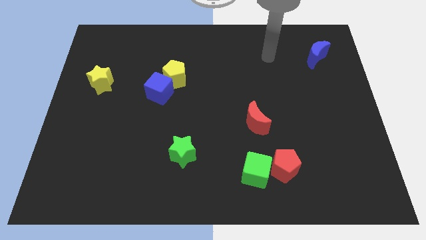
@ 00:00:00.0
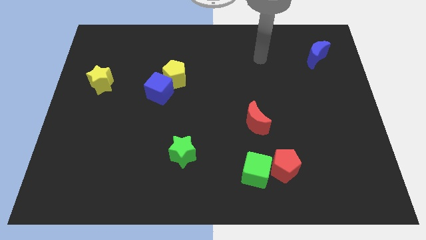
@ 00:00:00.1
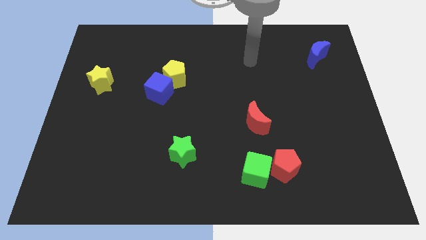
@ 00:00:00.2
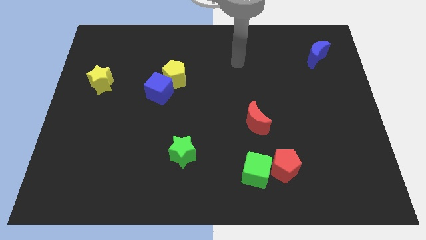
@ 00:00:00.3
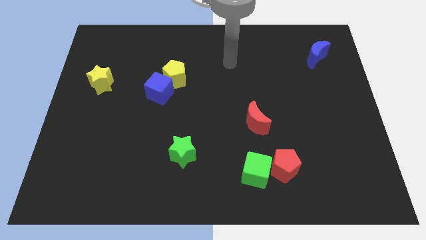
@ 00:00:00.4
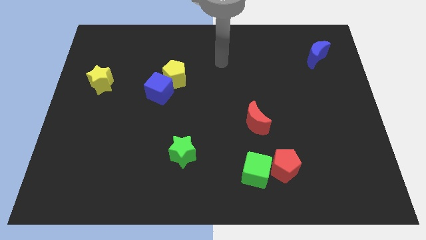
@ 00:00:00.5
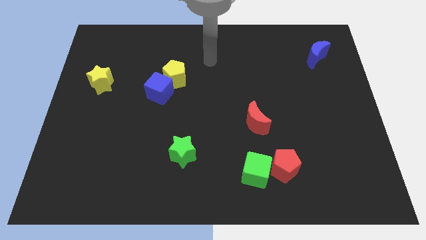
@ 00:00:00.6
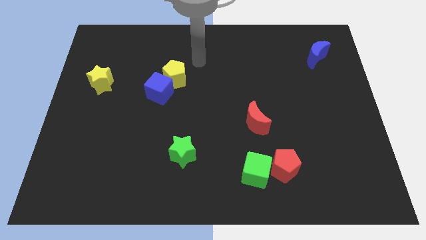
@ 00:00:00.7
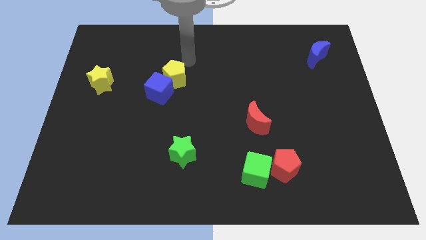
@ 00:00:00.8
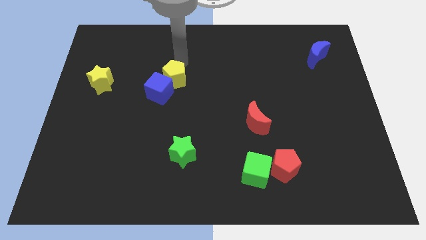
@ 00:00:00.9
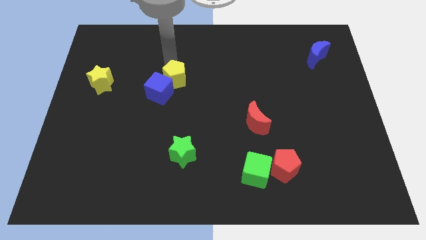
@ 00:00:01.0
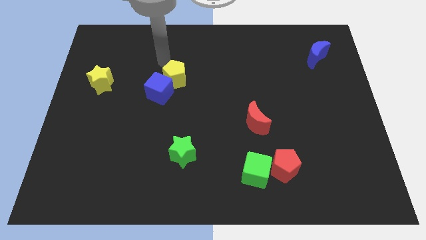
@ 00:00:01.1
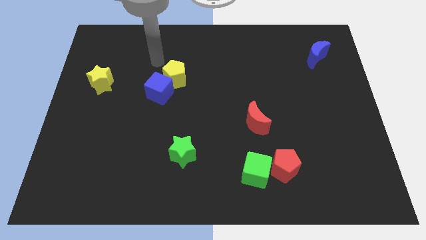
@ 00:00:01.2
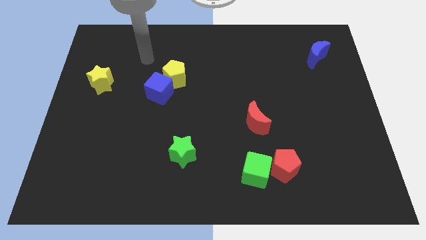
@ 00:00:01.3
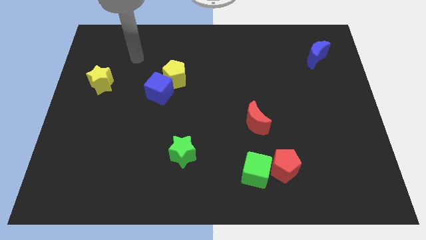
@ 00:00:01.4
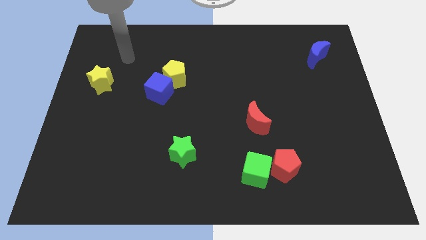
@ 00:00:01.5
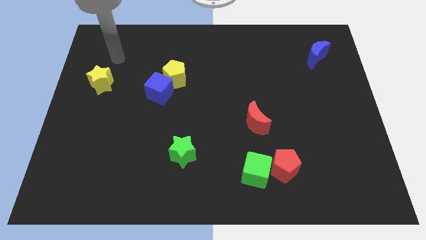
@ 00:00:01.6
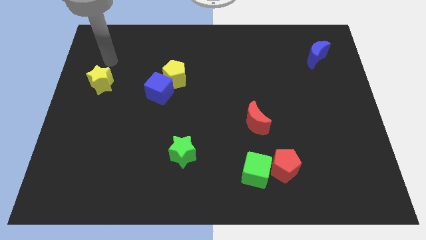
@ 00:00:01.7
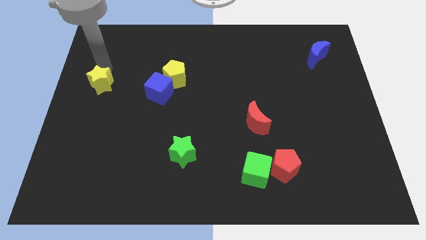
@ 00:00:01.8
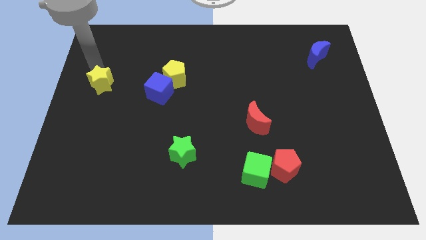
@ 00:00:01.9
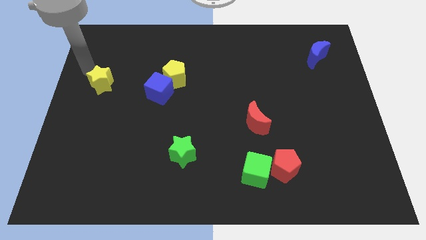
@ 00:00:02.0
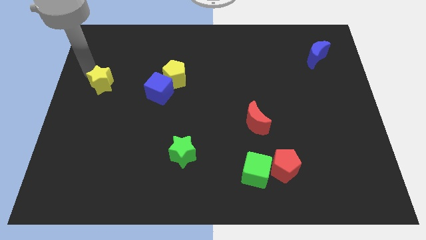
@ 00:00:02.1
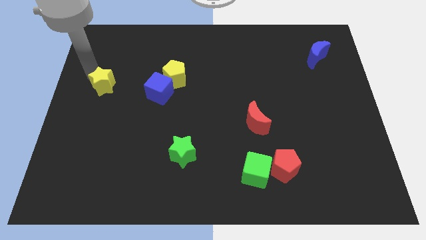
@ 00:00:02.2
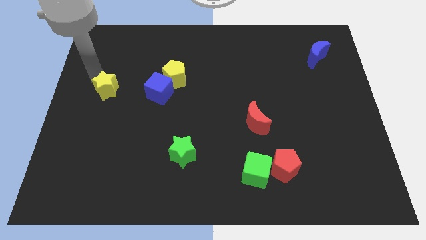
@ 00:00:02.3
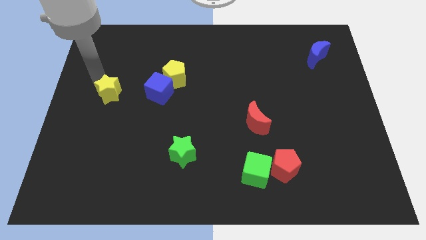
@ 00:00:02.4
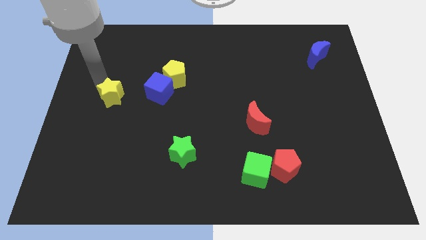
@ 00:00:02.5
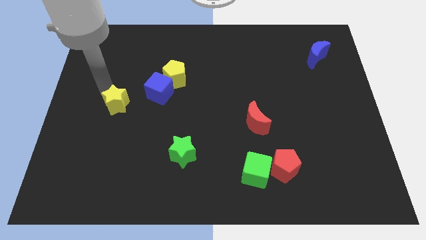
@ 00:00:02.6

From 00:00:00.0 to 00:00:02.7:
move the yellow star a little bit down and to the right diagonally

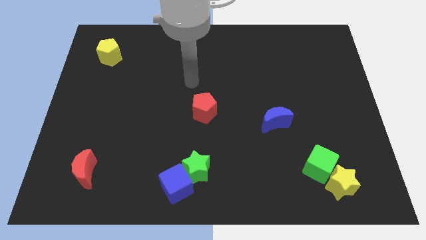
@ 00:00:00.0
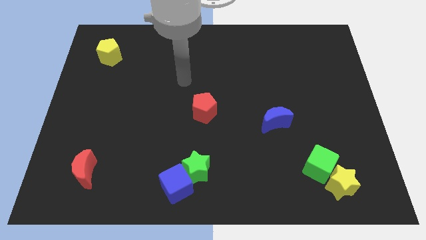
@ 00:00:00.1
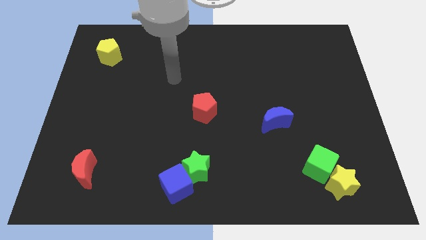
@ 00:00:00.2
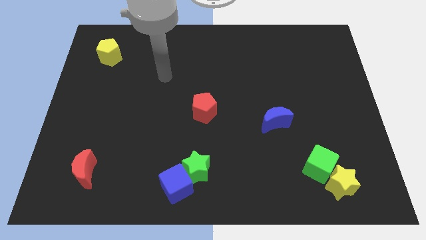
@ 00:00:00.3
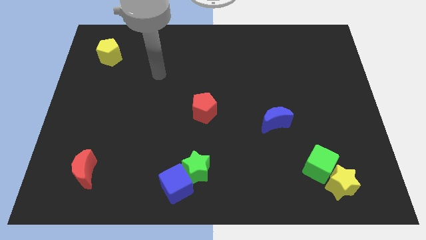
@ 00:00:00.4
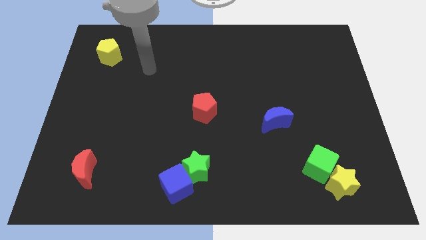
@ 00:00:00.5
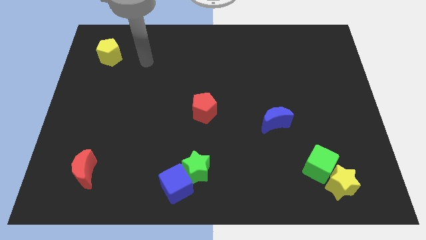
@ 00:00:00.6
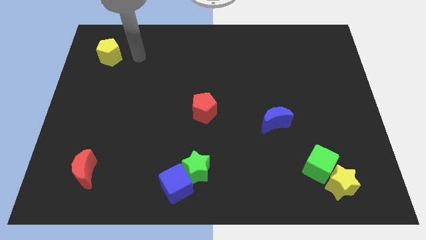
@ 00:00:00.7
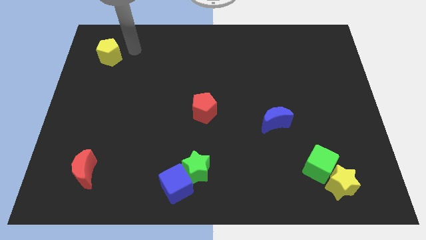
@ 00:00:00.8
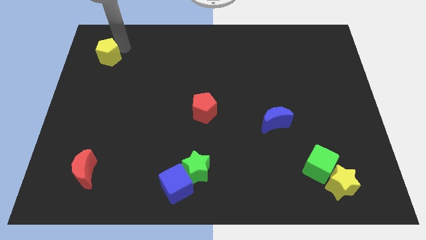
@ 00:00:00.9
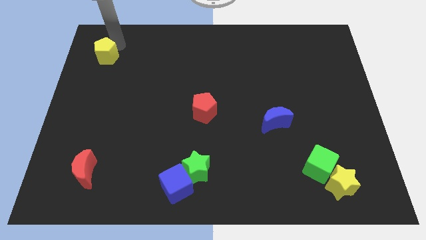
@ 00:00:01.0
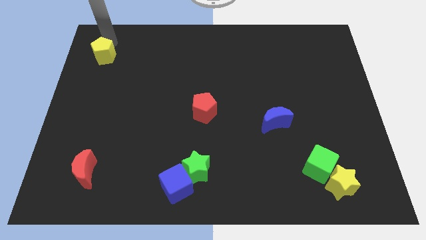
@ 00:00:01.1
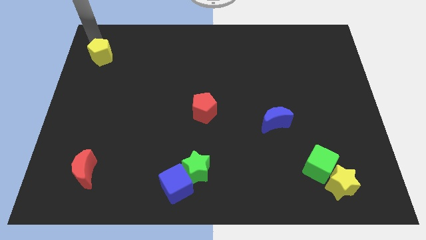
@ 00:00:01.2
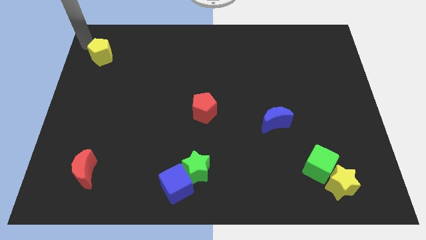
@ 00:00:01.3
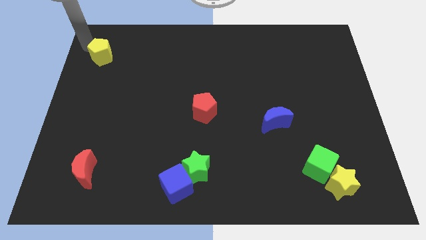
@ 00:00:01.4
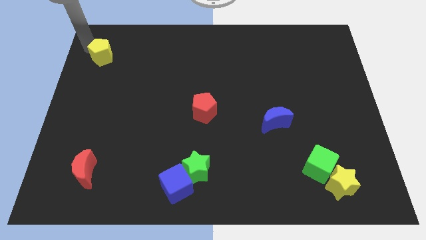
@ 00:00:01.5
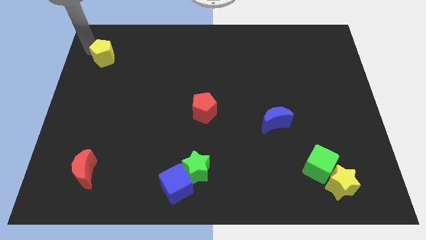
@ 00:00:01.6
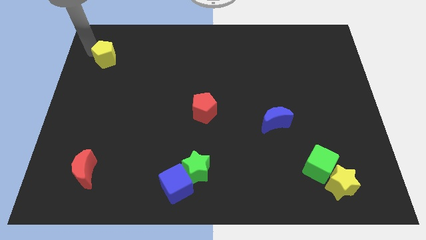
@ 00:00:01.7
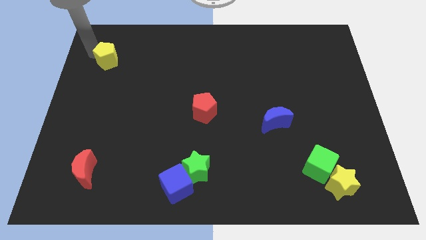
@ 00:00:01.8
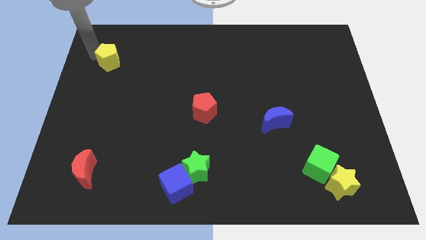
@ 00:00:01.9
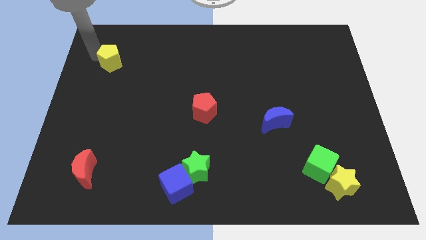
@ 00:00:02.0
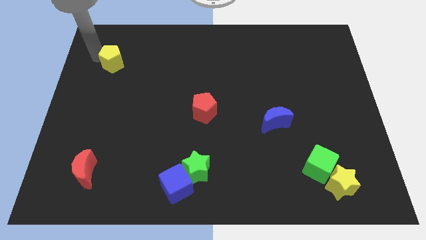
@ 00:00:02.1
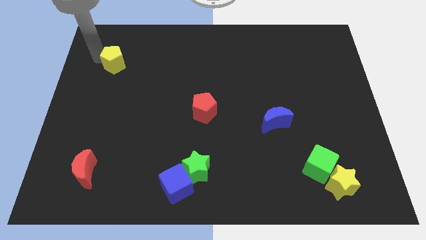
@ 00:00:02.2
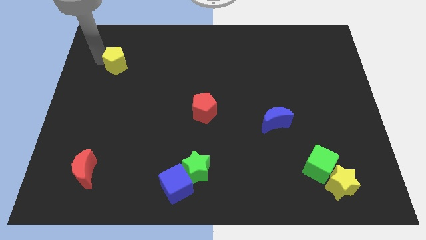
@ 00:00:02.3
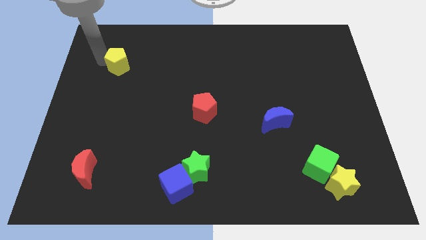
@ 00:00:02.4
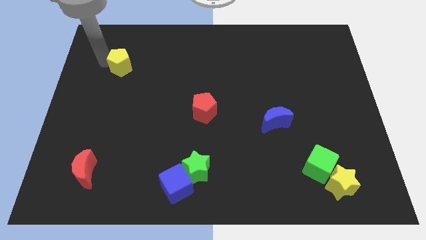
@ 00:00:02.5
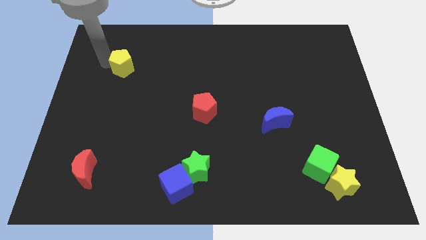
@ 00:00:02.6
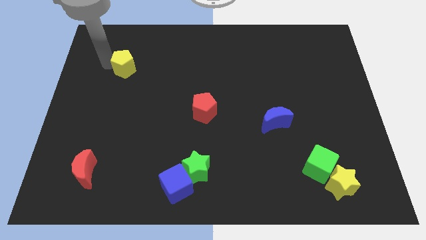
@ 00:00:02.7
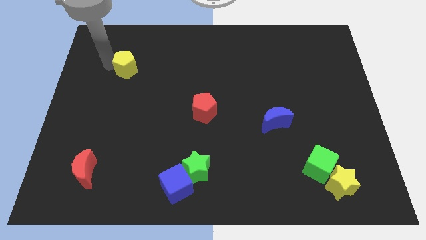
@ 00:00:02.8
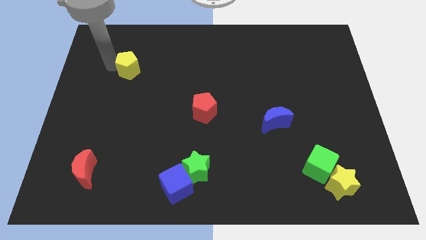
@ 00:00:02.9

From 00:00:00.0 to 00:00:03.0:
slide the yellow pentagon somewhat downwards and then right

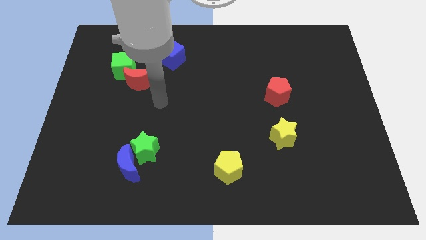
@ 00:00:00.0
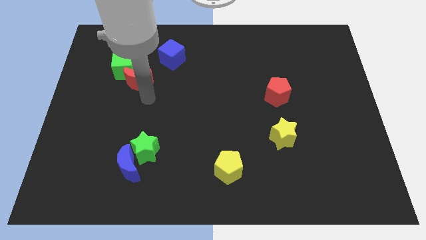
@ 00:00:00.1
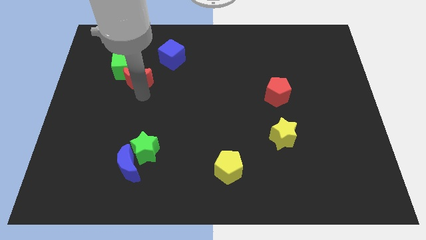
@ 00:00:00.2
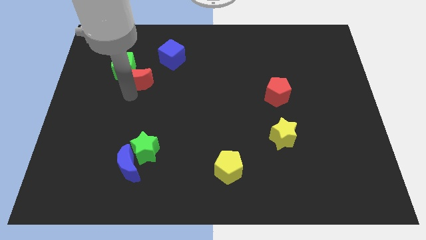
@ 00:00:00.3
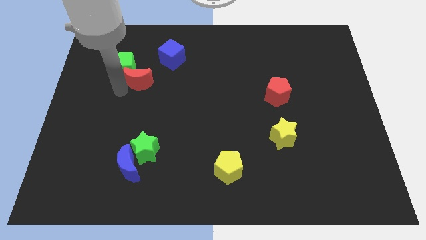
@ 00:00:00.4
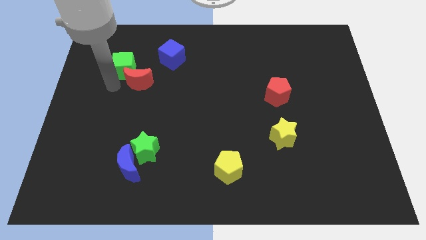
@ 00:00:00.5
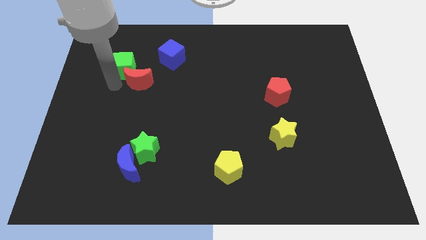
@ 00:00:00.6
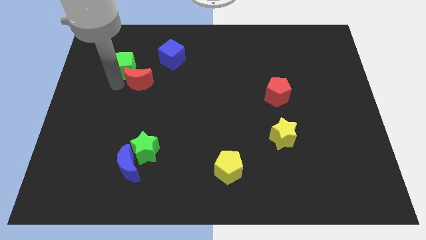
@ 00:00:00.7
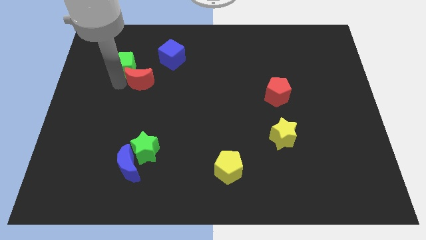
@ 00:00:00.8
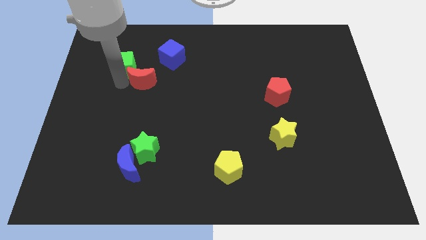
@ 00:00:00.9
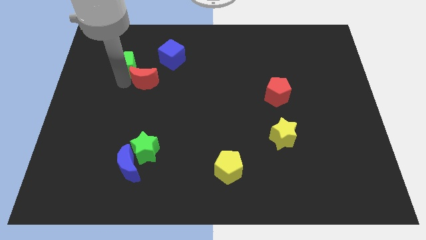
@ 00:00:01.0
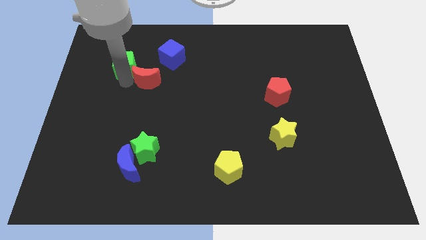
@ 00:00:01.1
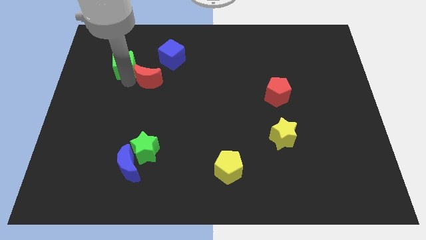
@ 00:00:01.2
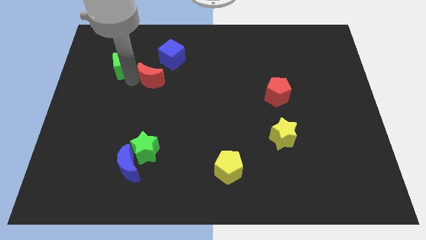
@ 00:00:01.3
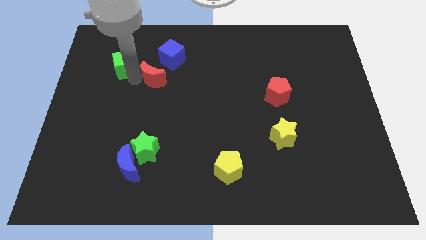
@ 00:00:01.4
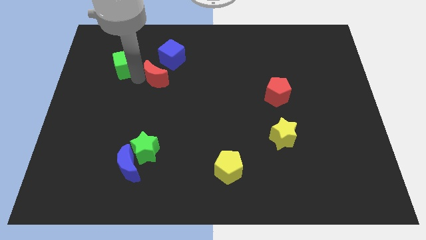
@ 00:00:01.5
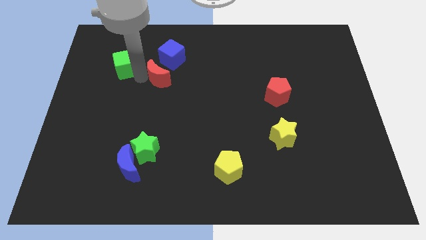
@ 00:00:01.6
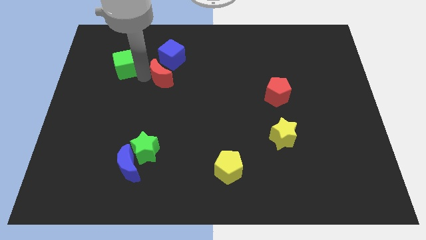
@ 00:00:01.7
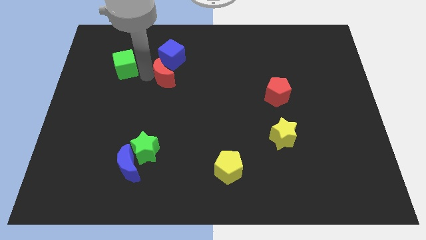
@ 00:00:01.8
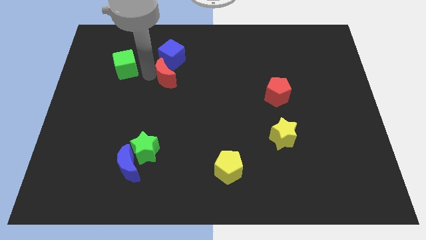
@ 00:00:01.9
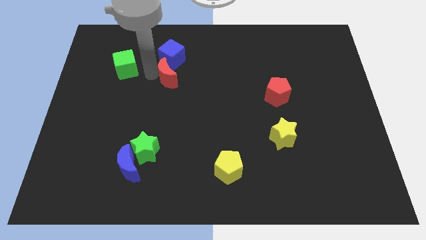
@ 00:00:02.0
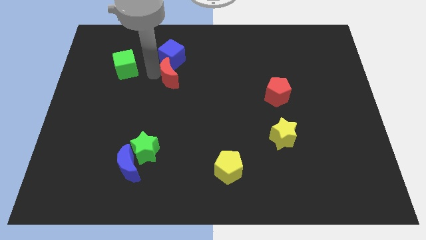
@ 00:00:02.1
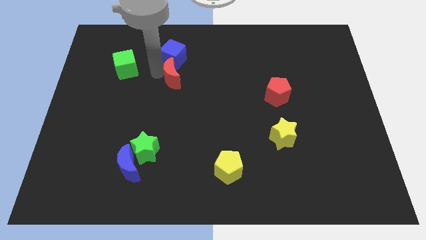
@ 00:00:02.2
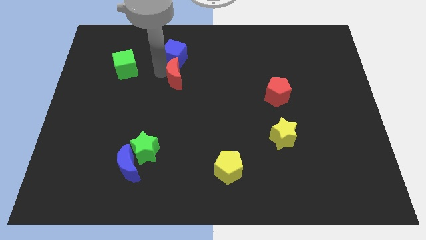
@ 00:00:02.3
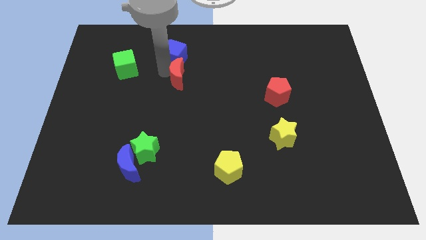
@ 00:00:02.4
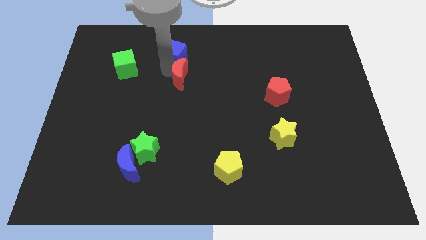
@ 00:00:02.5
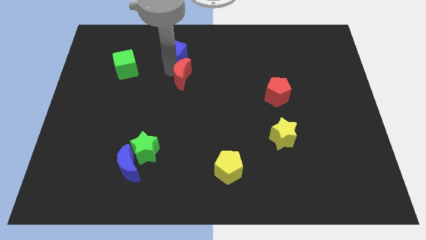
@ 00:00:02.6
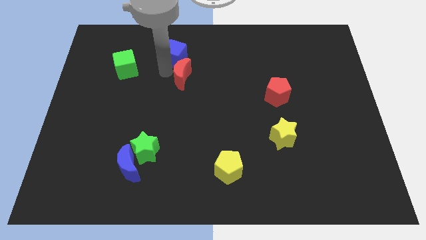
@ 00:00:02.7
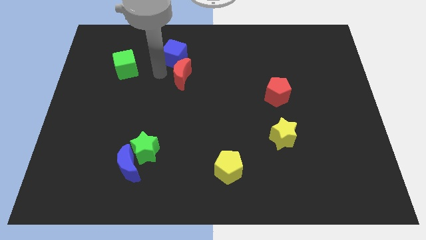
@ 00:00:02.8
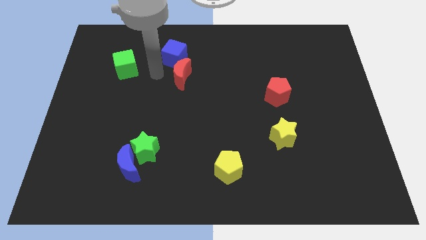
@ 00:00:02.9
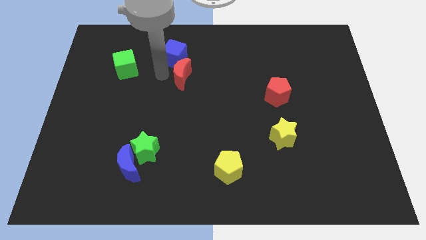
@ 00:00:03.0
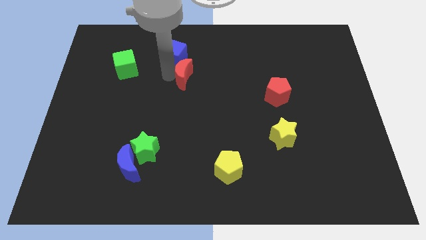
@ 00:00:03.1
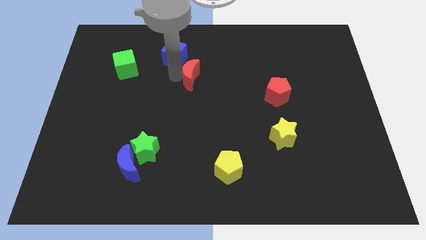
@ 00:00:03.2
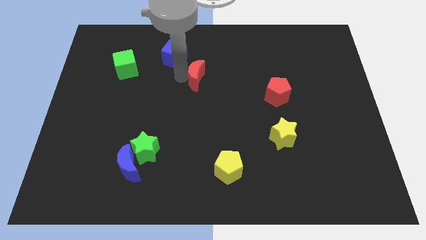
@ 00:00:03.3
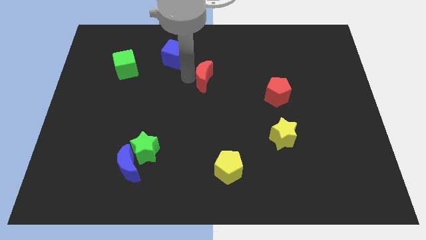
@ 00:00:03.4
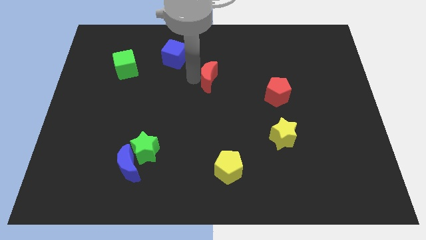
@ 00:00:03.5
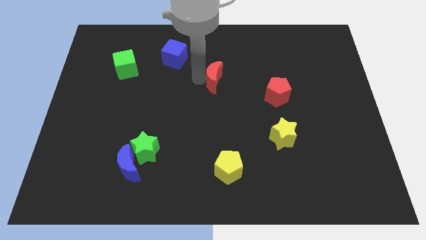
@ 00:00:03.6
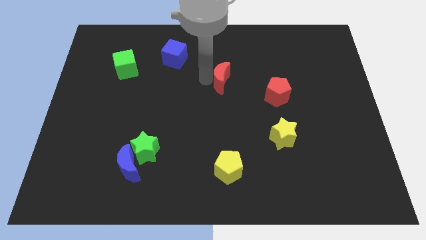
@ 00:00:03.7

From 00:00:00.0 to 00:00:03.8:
slide the red moon to the right
